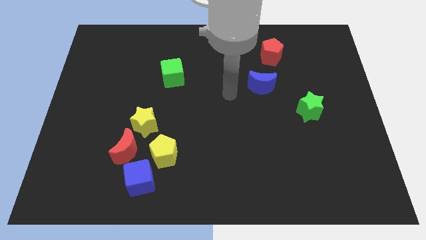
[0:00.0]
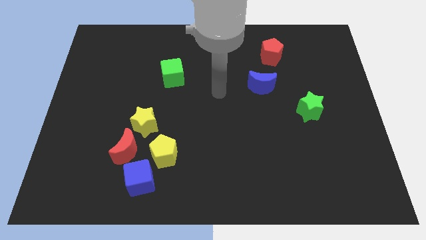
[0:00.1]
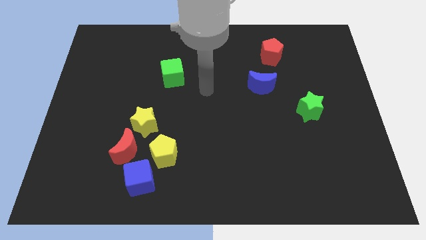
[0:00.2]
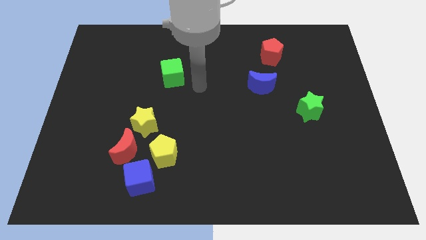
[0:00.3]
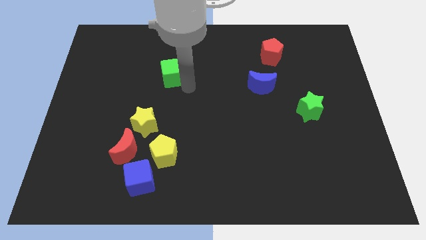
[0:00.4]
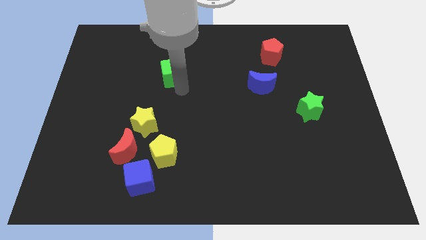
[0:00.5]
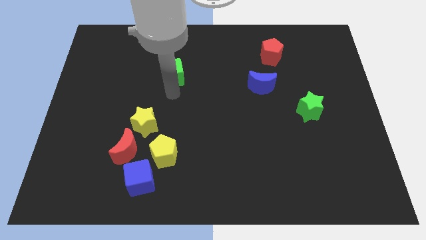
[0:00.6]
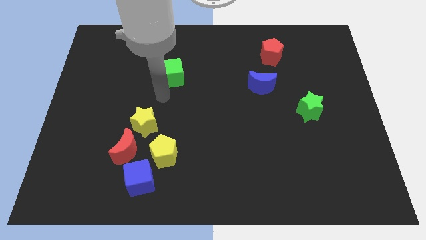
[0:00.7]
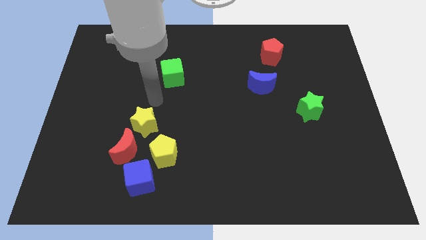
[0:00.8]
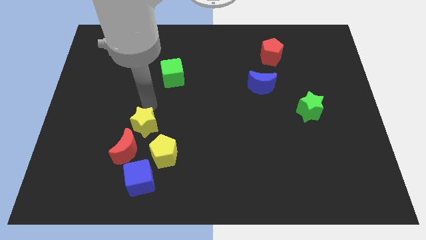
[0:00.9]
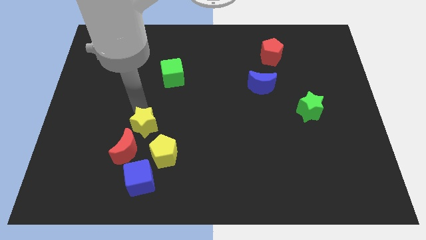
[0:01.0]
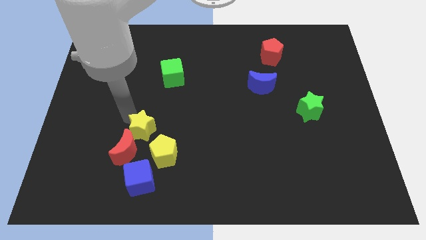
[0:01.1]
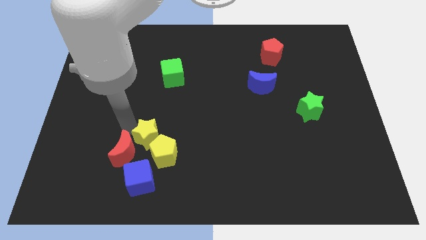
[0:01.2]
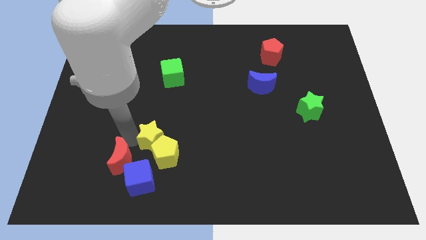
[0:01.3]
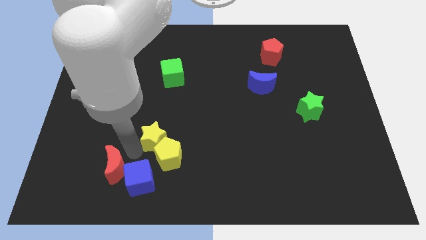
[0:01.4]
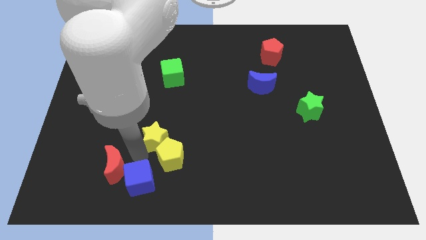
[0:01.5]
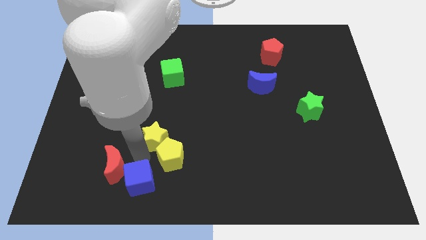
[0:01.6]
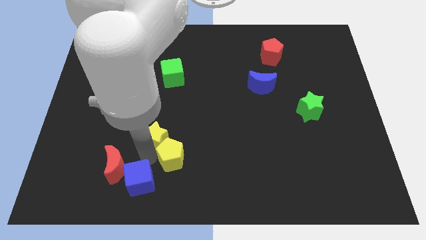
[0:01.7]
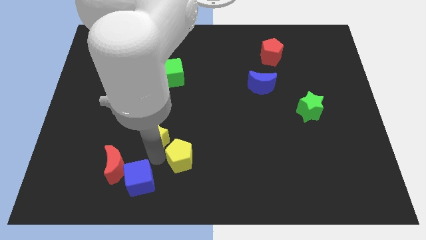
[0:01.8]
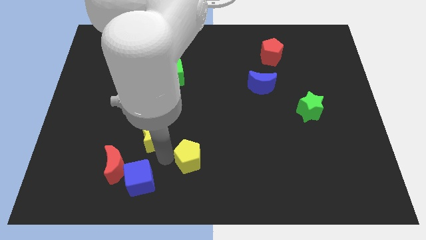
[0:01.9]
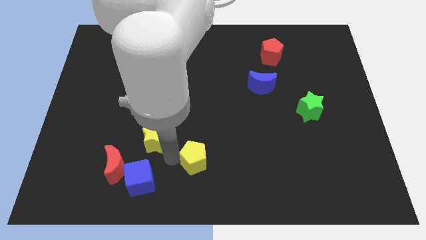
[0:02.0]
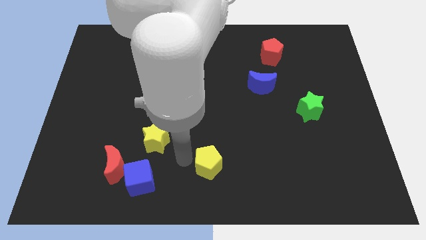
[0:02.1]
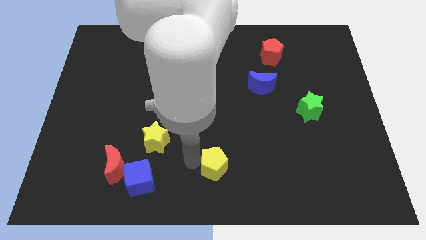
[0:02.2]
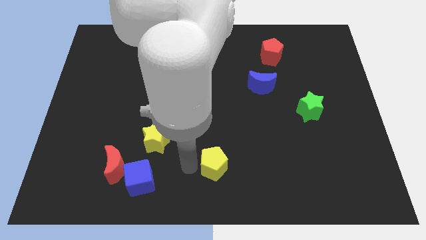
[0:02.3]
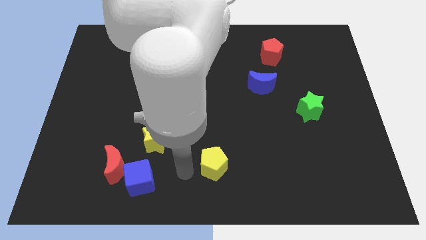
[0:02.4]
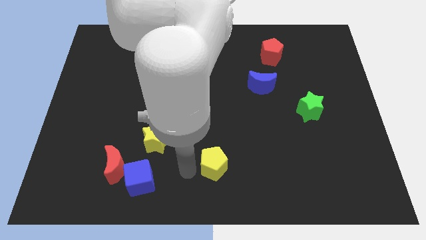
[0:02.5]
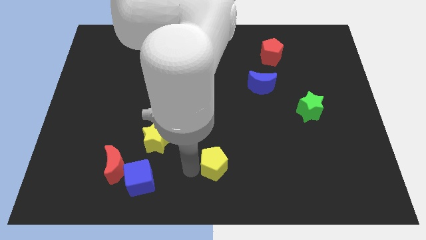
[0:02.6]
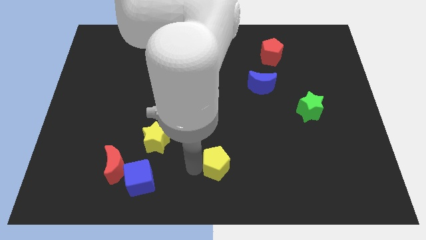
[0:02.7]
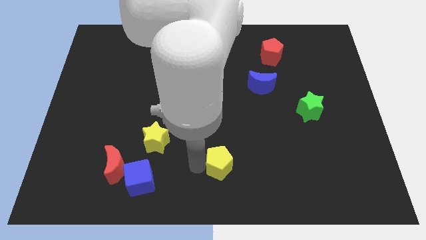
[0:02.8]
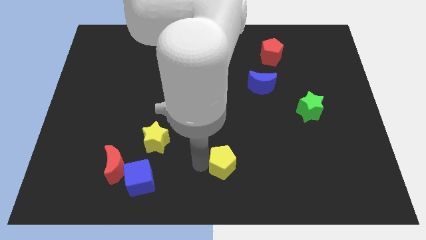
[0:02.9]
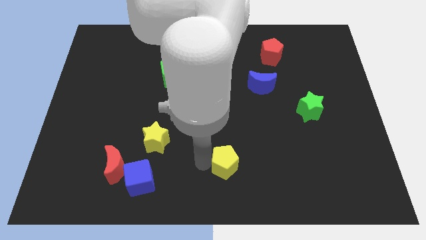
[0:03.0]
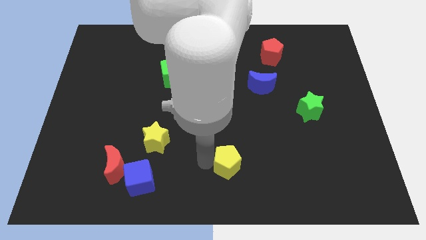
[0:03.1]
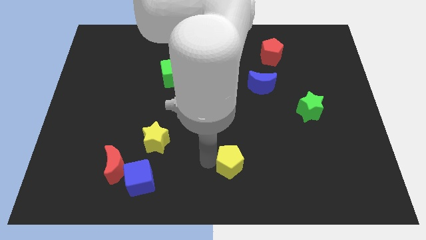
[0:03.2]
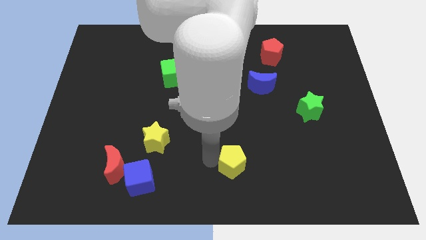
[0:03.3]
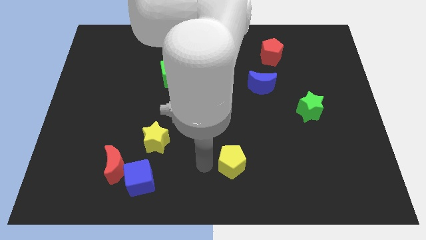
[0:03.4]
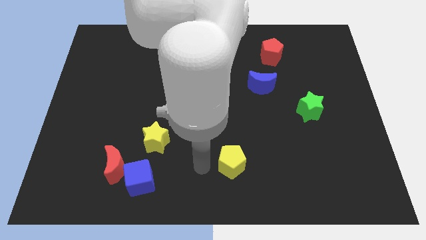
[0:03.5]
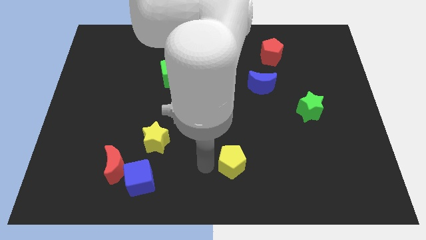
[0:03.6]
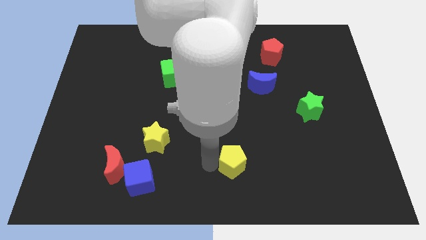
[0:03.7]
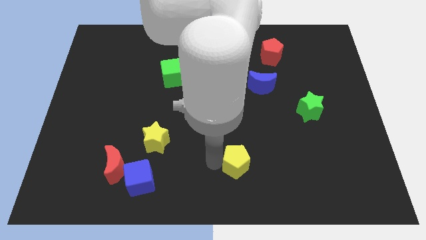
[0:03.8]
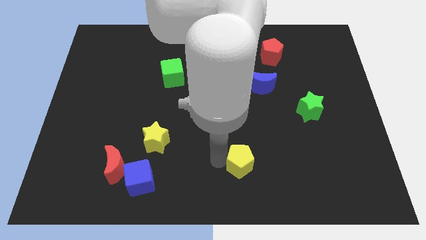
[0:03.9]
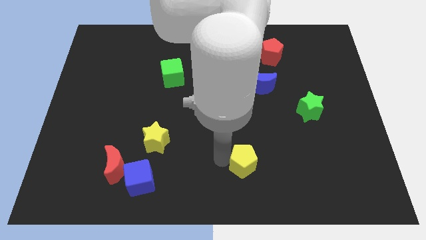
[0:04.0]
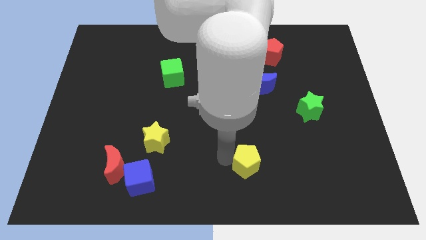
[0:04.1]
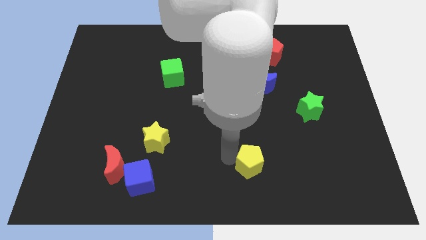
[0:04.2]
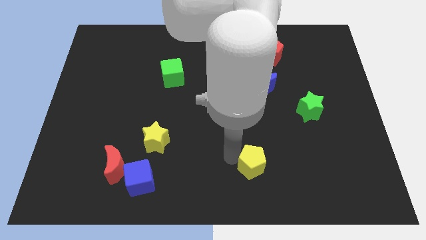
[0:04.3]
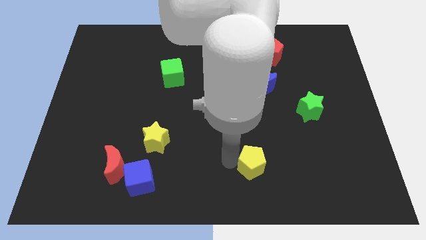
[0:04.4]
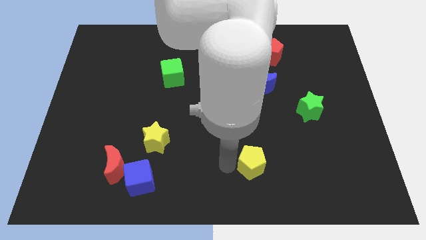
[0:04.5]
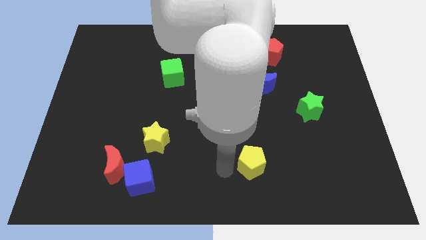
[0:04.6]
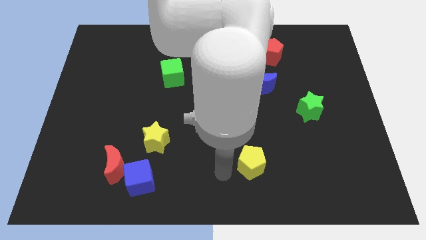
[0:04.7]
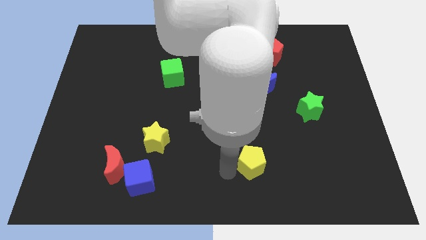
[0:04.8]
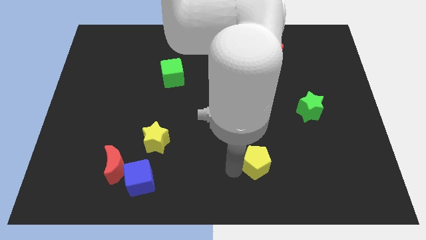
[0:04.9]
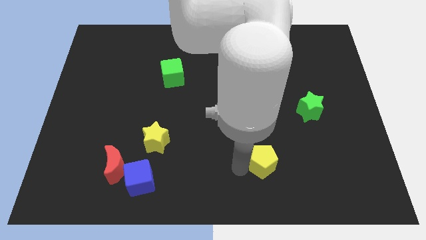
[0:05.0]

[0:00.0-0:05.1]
move the yellow pentagon right

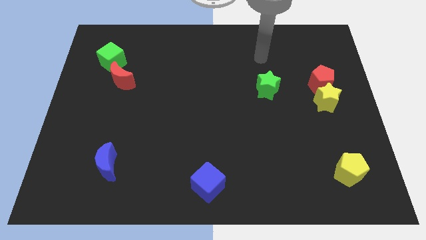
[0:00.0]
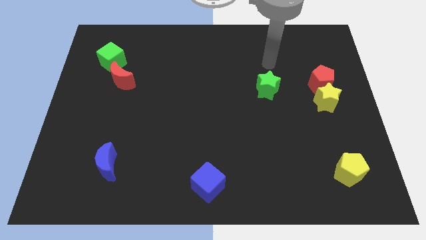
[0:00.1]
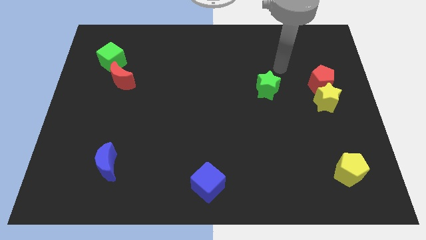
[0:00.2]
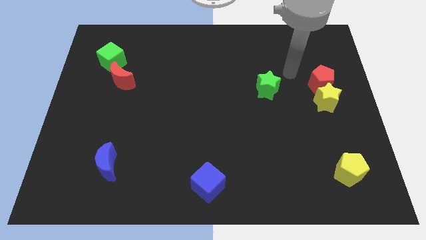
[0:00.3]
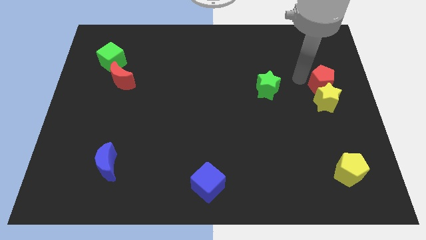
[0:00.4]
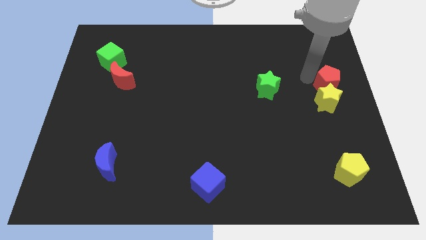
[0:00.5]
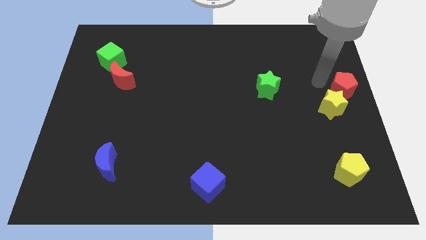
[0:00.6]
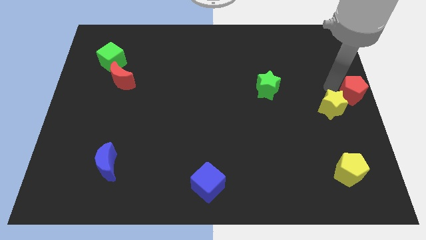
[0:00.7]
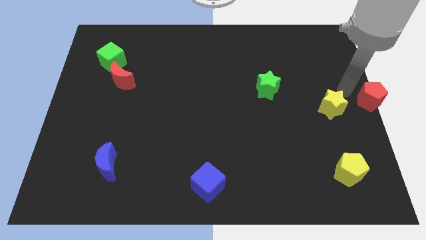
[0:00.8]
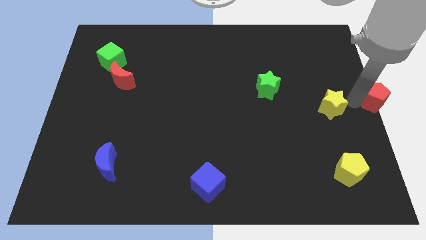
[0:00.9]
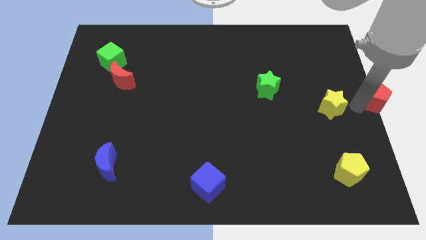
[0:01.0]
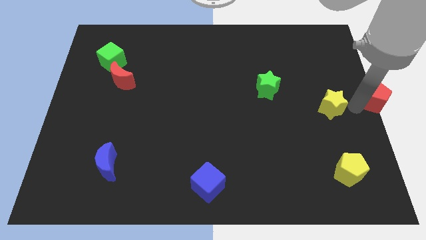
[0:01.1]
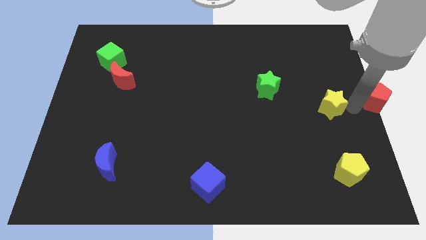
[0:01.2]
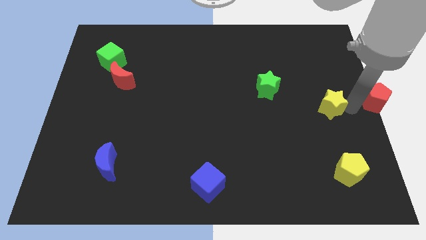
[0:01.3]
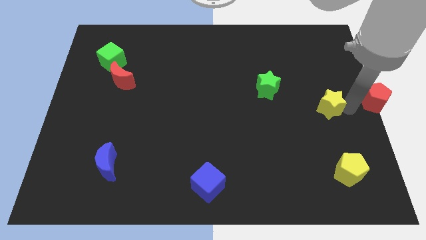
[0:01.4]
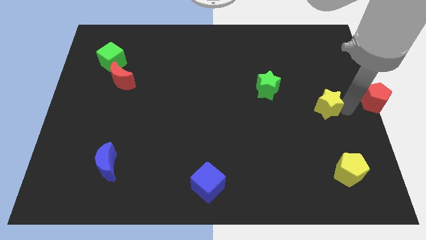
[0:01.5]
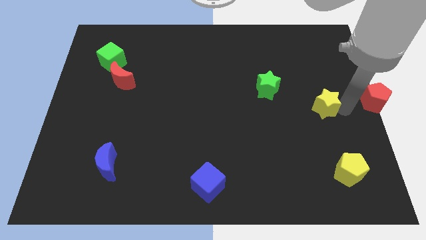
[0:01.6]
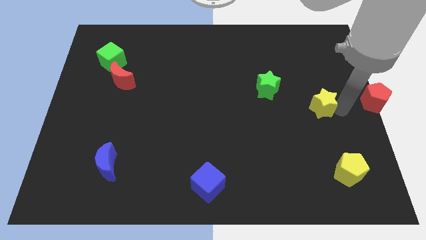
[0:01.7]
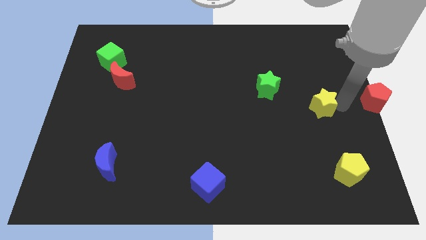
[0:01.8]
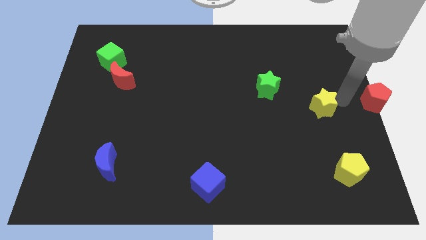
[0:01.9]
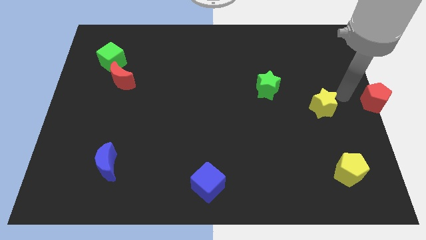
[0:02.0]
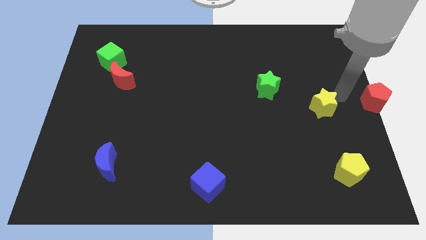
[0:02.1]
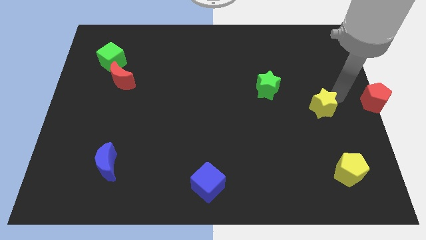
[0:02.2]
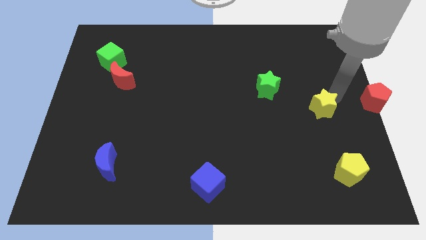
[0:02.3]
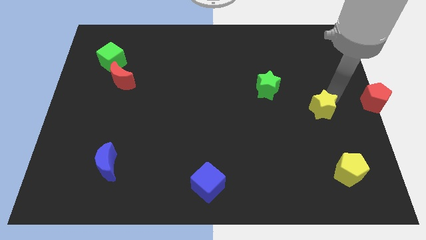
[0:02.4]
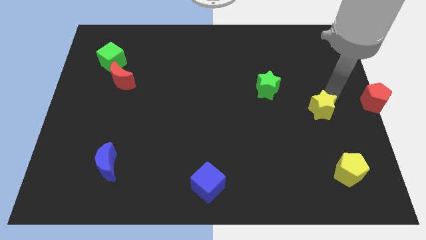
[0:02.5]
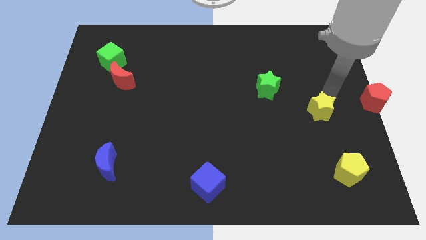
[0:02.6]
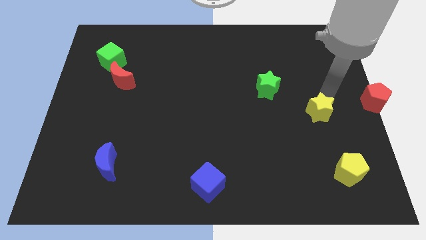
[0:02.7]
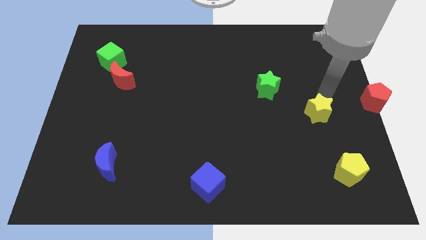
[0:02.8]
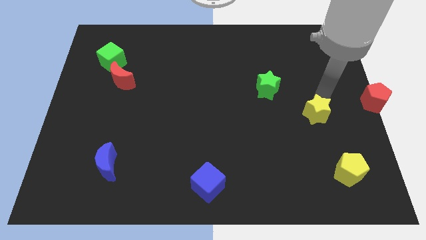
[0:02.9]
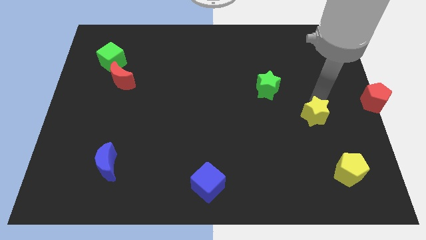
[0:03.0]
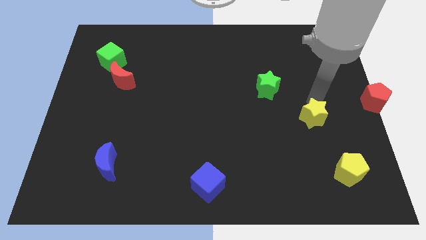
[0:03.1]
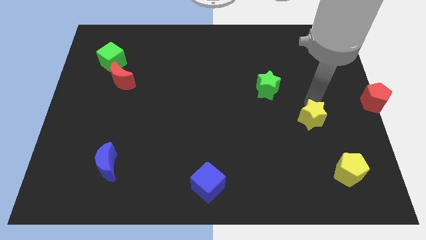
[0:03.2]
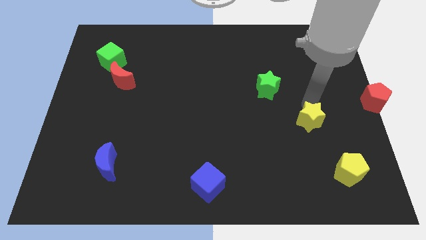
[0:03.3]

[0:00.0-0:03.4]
push the yellow star down and to the left diagonally slightly
